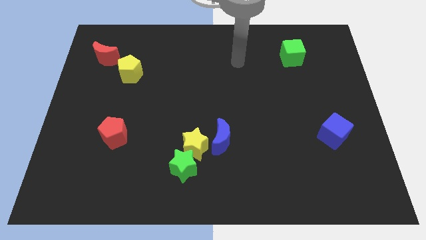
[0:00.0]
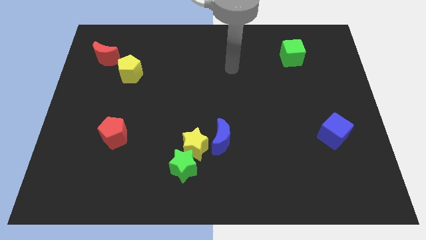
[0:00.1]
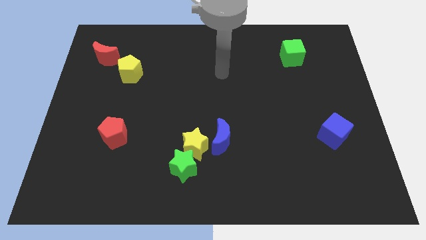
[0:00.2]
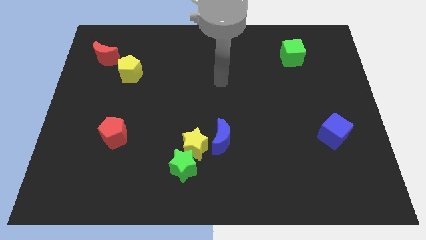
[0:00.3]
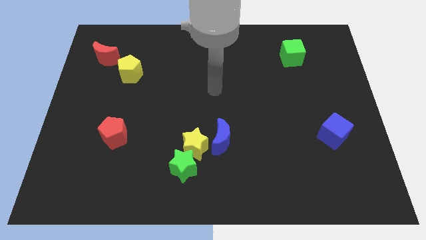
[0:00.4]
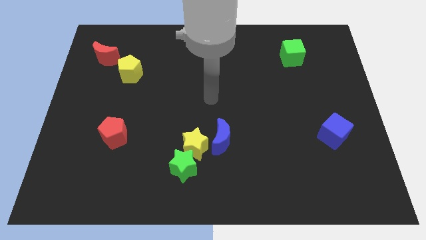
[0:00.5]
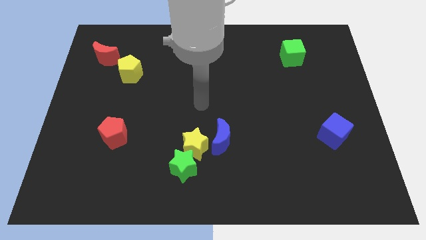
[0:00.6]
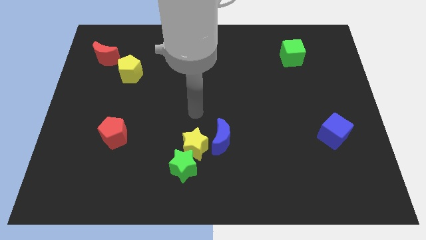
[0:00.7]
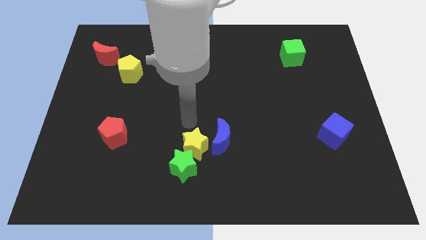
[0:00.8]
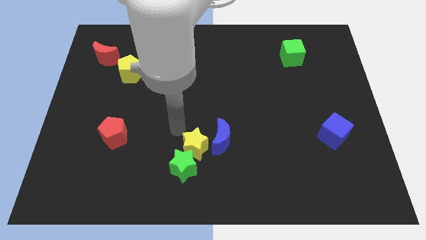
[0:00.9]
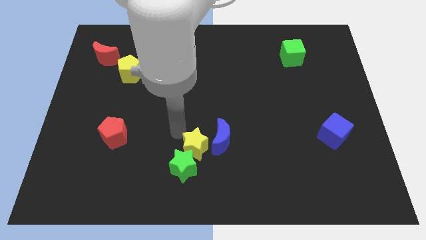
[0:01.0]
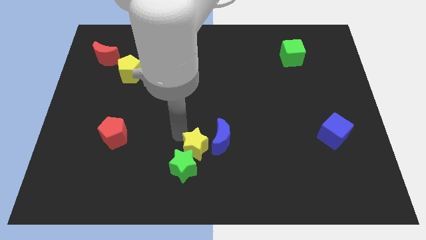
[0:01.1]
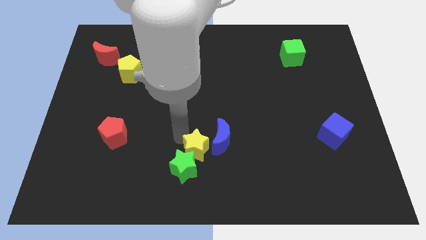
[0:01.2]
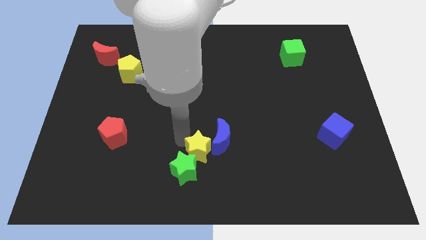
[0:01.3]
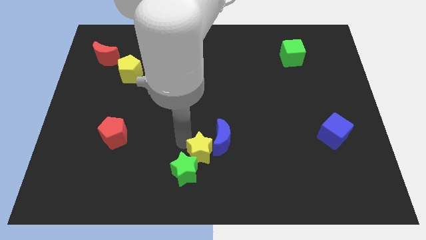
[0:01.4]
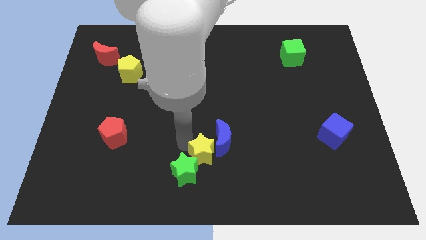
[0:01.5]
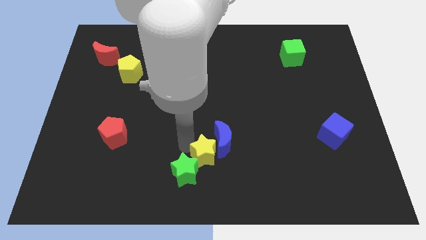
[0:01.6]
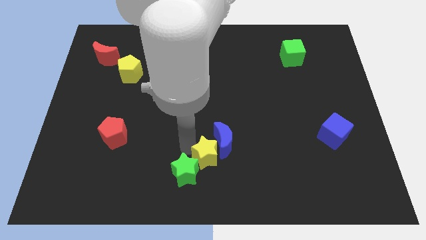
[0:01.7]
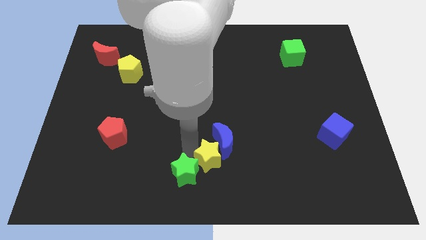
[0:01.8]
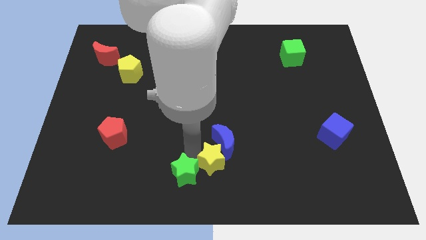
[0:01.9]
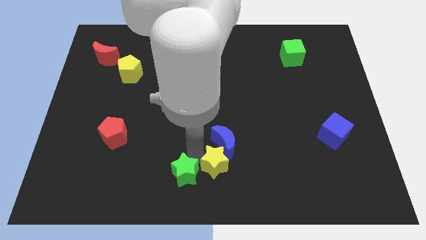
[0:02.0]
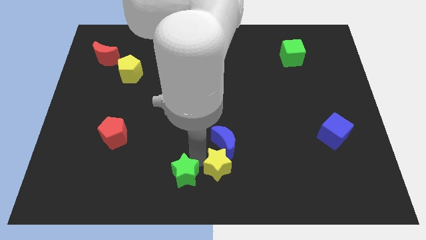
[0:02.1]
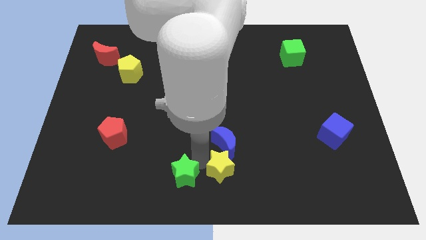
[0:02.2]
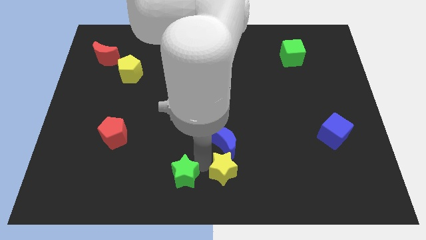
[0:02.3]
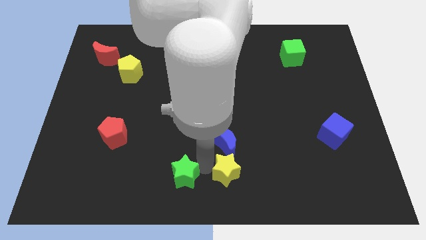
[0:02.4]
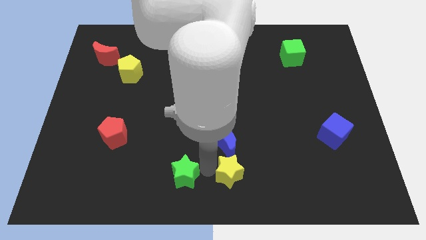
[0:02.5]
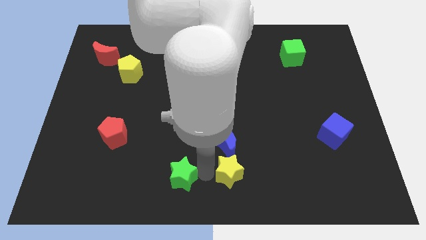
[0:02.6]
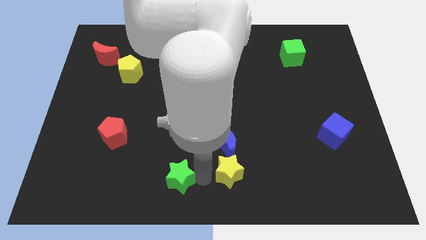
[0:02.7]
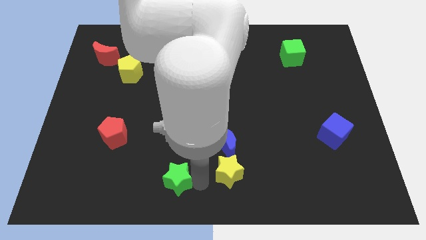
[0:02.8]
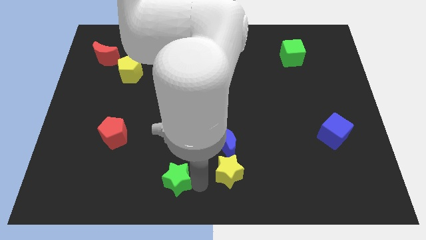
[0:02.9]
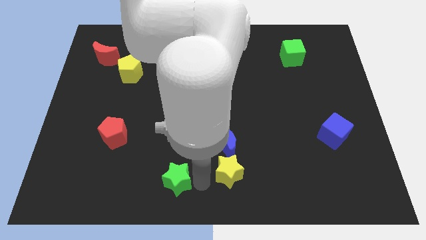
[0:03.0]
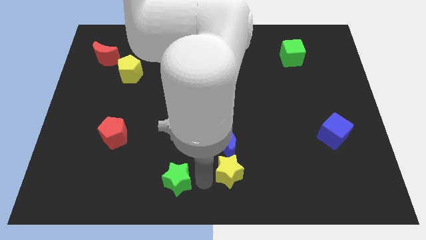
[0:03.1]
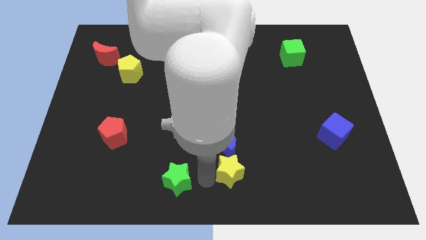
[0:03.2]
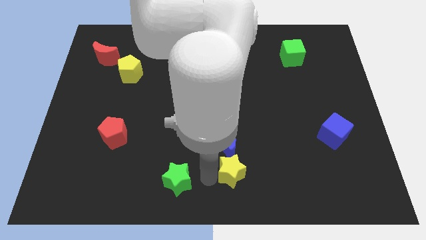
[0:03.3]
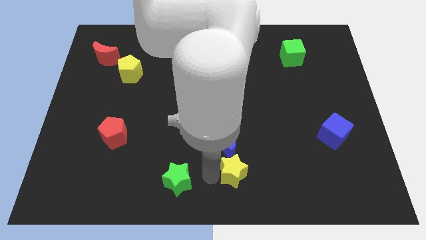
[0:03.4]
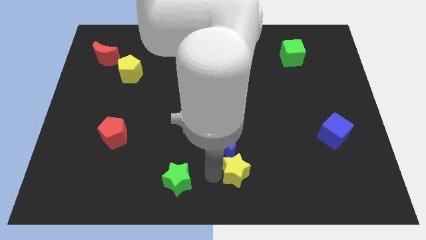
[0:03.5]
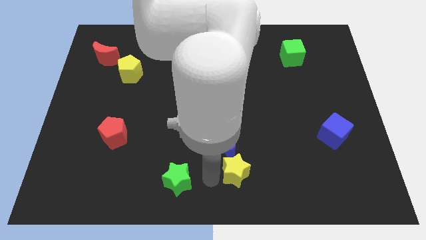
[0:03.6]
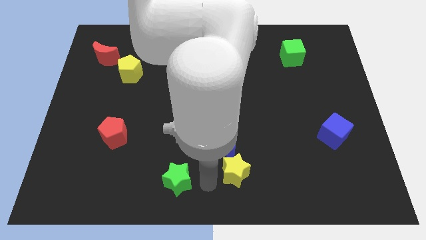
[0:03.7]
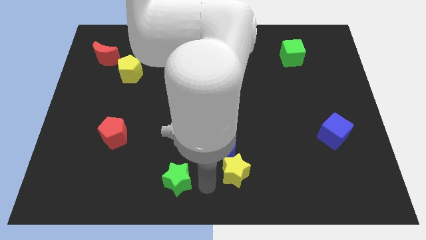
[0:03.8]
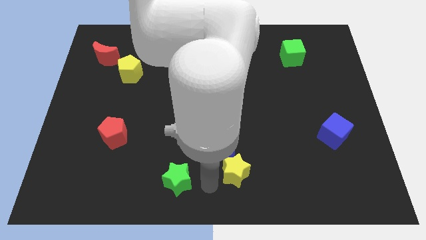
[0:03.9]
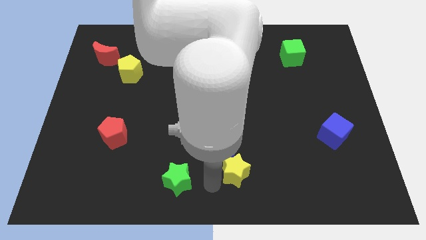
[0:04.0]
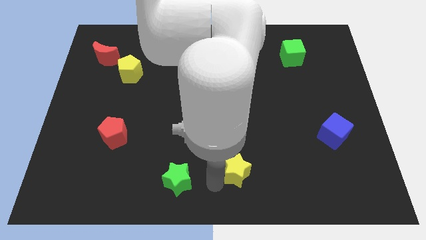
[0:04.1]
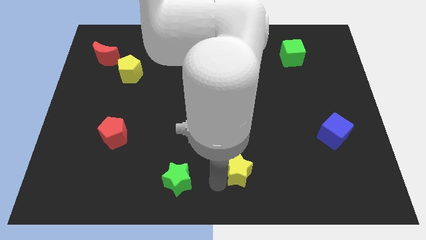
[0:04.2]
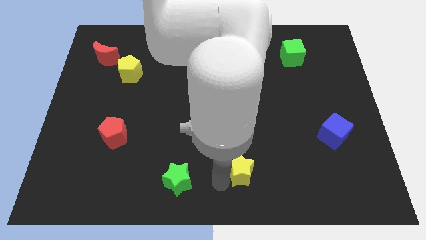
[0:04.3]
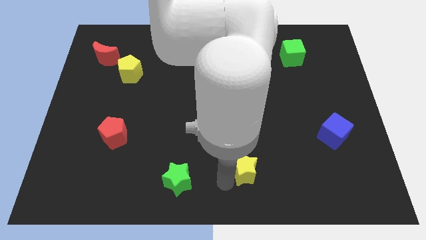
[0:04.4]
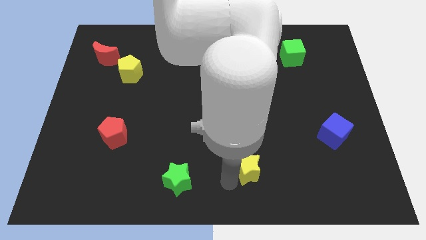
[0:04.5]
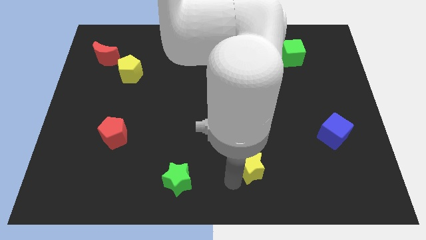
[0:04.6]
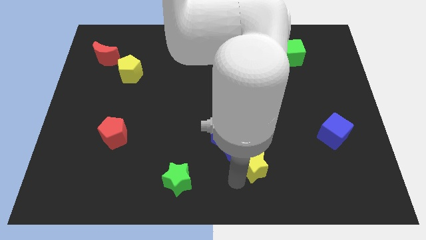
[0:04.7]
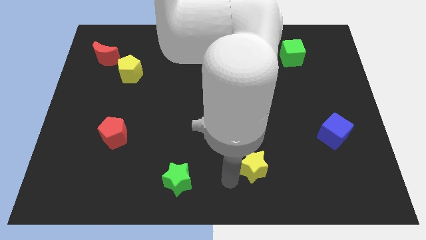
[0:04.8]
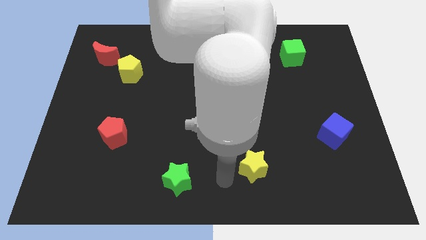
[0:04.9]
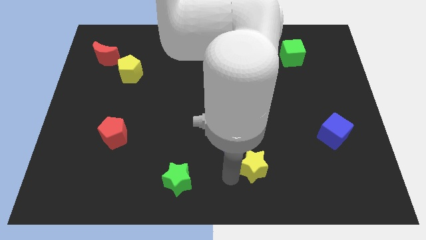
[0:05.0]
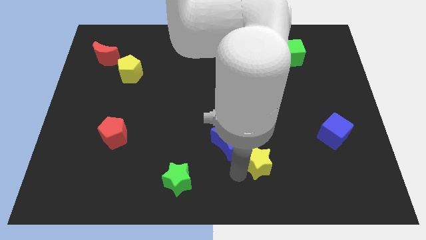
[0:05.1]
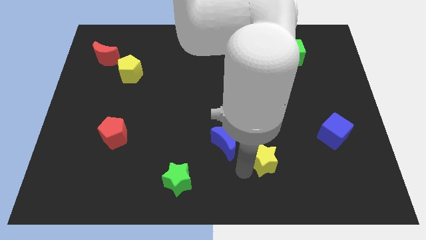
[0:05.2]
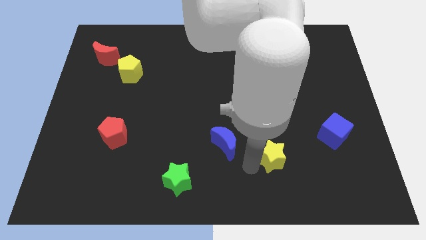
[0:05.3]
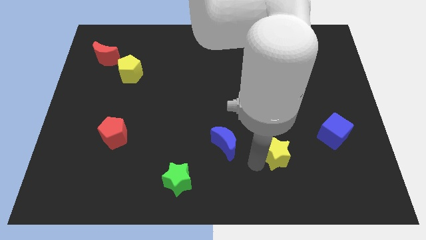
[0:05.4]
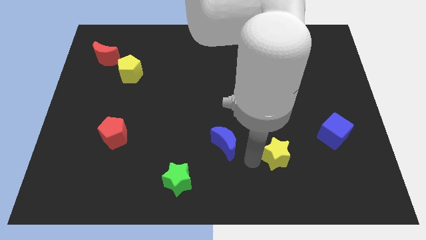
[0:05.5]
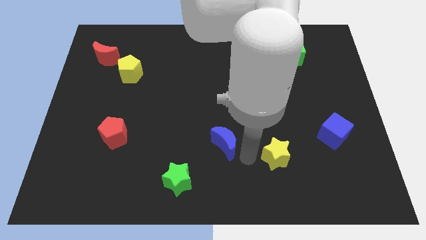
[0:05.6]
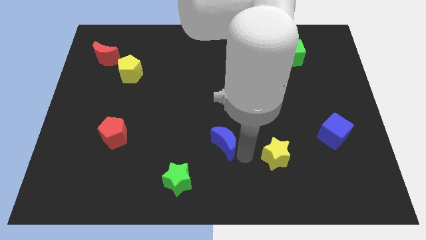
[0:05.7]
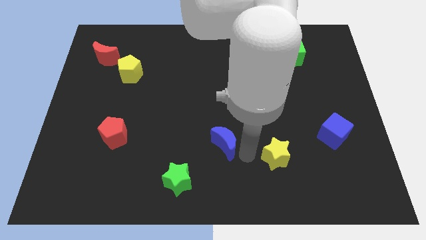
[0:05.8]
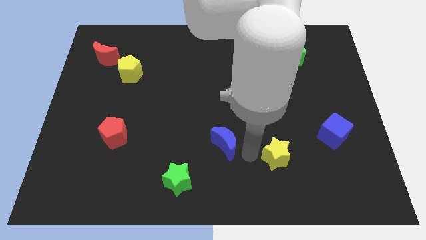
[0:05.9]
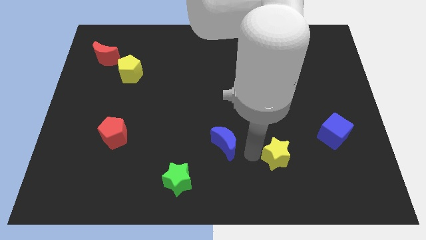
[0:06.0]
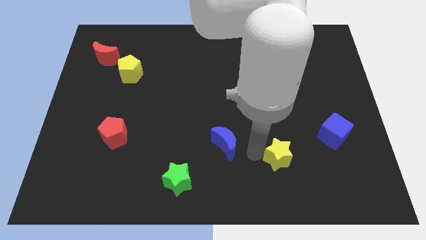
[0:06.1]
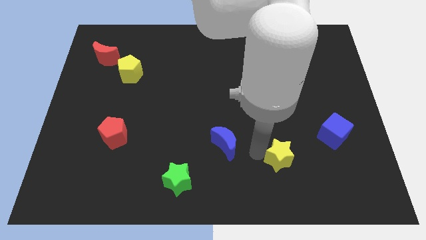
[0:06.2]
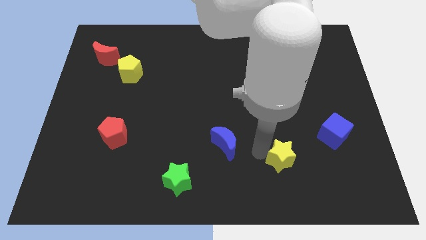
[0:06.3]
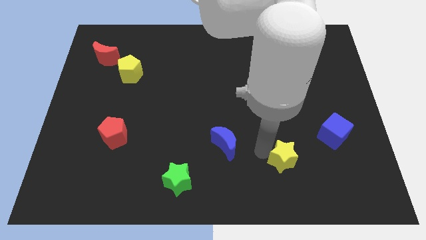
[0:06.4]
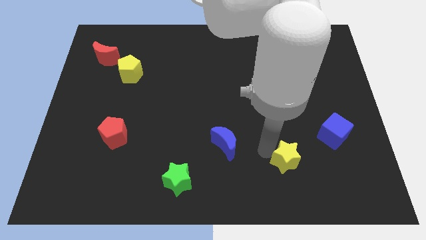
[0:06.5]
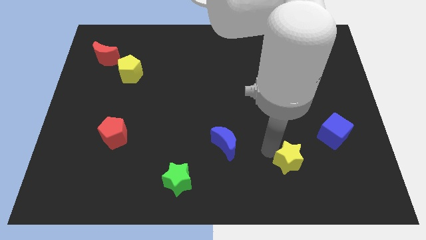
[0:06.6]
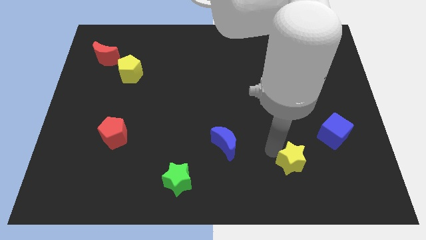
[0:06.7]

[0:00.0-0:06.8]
slide the yellow star to the bottom left side of the blue cube

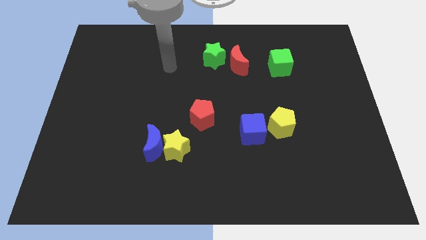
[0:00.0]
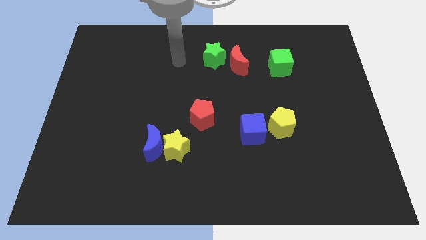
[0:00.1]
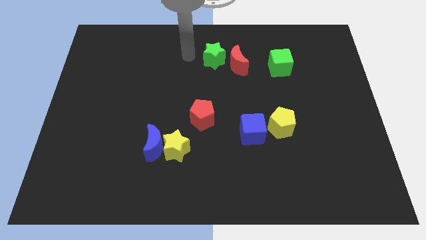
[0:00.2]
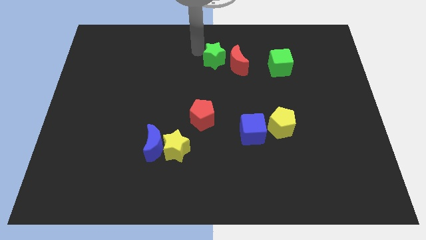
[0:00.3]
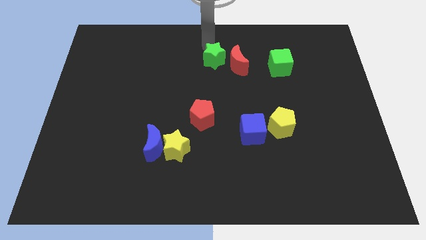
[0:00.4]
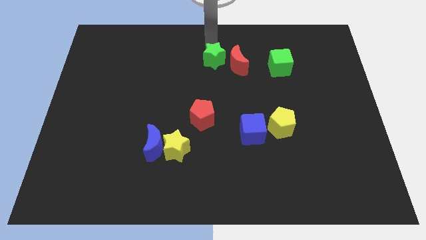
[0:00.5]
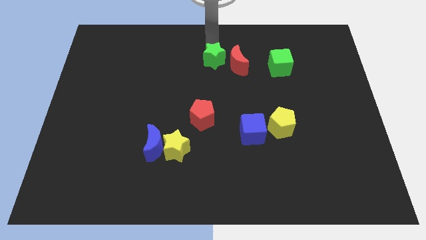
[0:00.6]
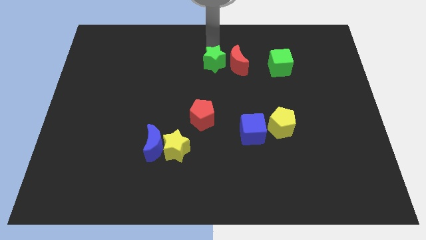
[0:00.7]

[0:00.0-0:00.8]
push the green star to the bottom left of the red moon
